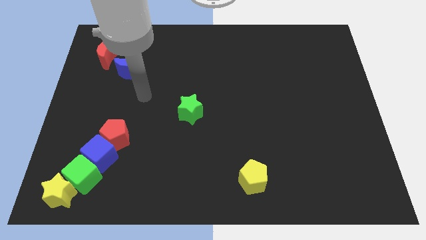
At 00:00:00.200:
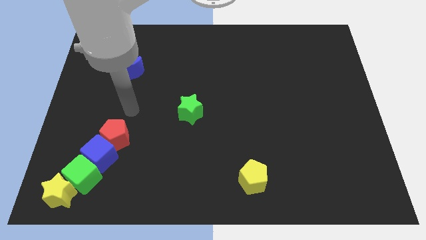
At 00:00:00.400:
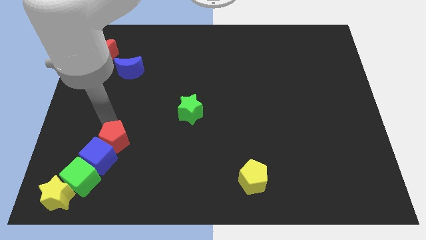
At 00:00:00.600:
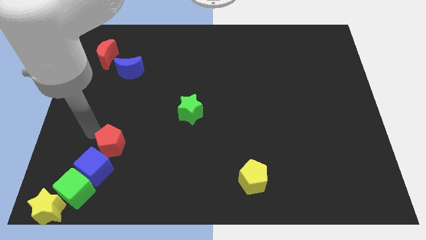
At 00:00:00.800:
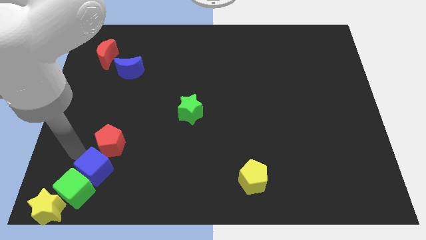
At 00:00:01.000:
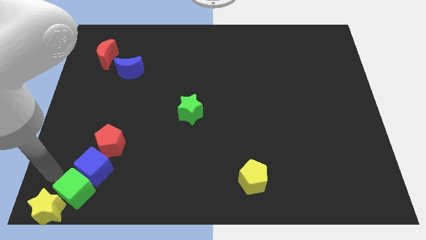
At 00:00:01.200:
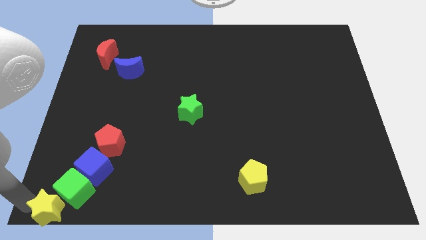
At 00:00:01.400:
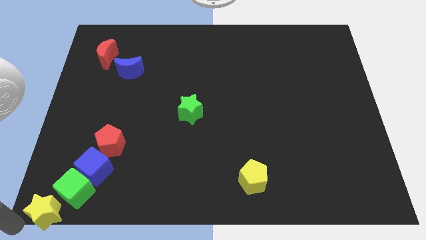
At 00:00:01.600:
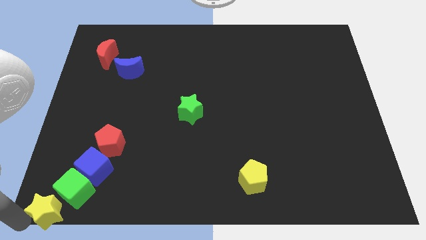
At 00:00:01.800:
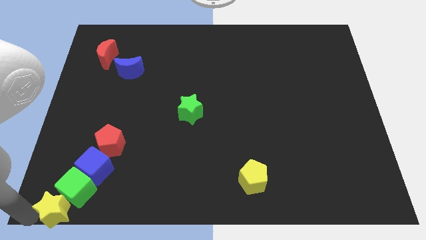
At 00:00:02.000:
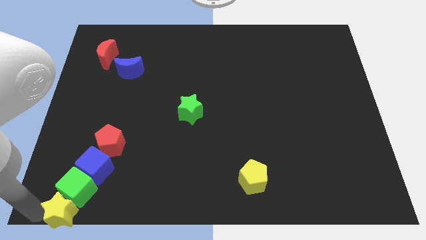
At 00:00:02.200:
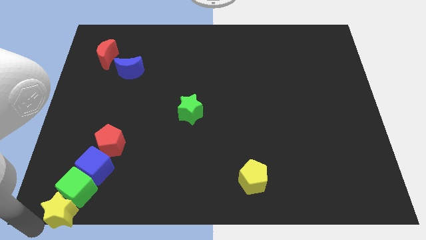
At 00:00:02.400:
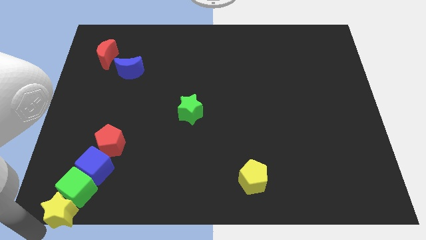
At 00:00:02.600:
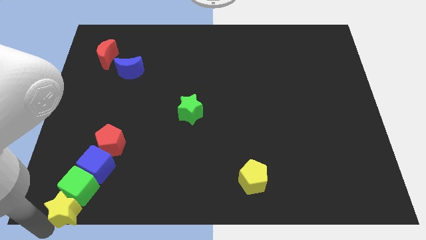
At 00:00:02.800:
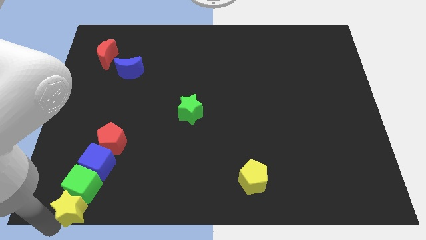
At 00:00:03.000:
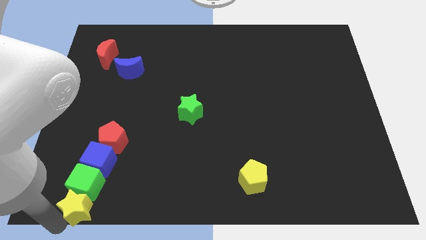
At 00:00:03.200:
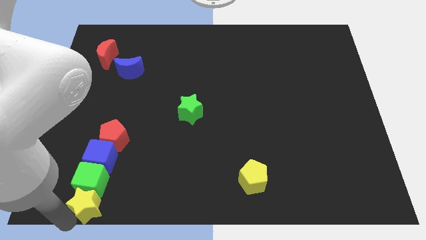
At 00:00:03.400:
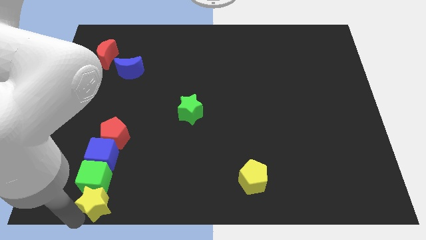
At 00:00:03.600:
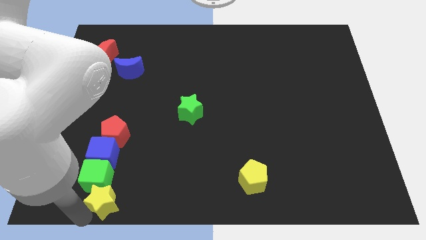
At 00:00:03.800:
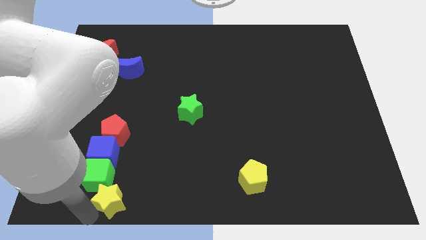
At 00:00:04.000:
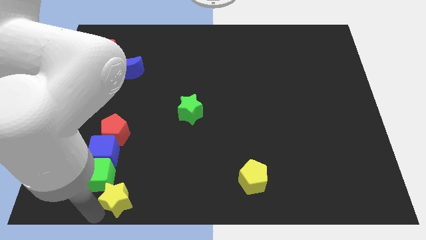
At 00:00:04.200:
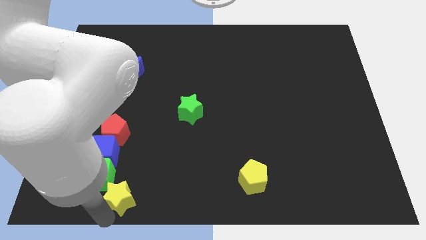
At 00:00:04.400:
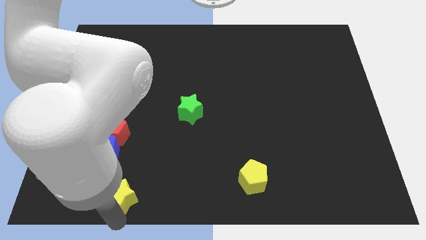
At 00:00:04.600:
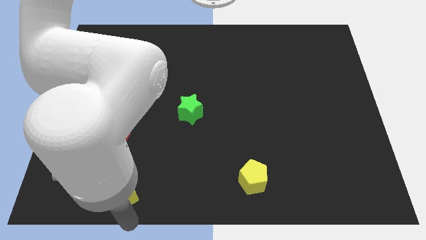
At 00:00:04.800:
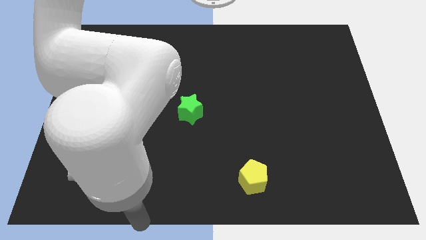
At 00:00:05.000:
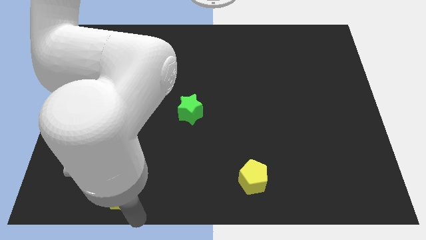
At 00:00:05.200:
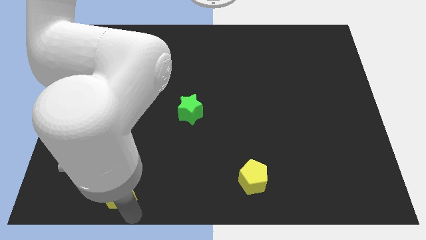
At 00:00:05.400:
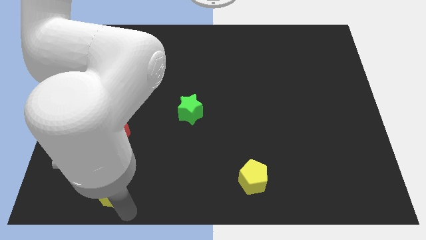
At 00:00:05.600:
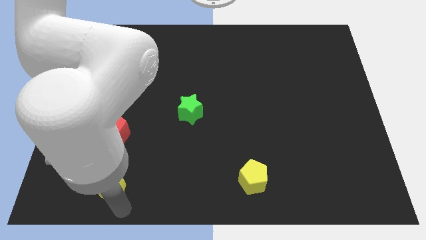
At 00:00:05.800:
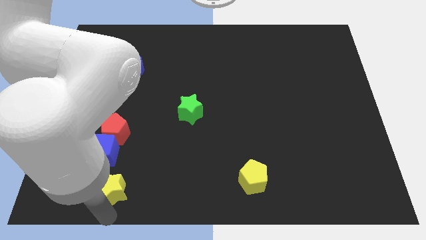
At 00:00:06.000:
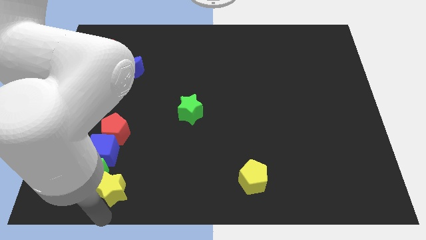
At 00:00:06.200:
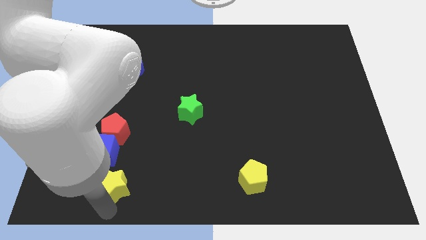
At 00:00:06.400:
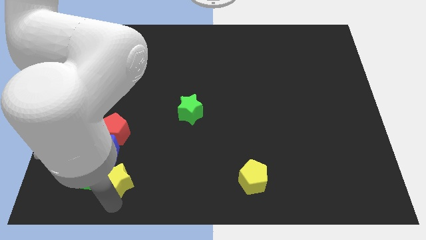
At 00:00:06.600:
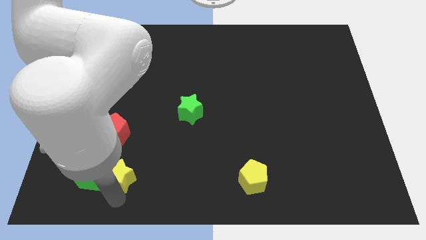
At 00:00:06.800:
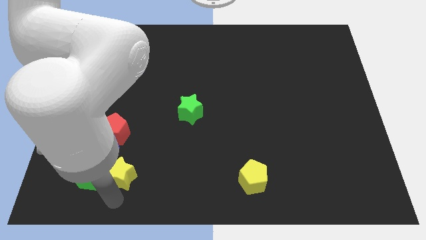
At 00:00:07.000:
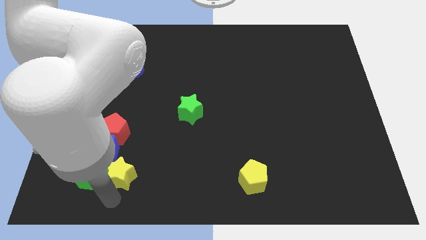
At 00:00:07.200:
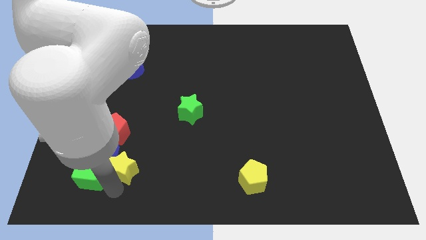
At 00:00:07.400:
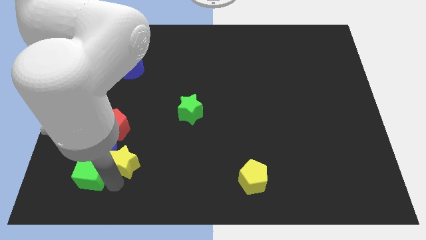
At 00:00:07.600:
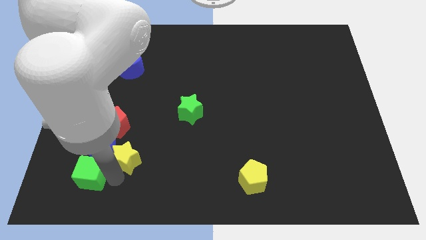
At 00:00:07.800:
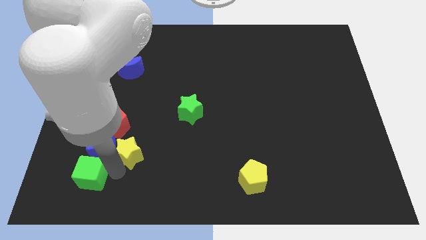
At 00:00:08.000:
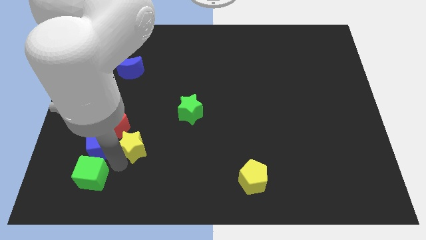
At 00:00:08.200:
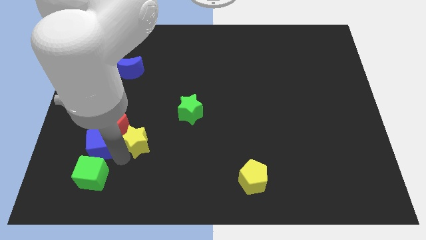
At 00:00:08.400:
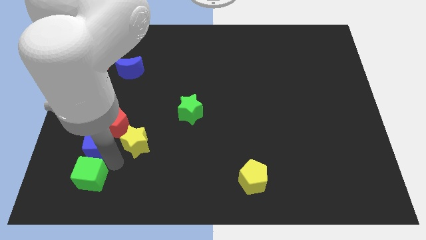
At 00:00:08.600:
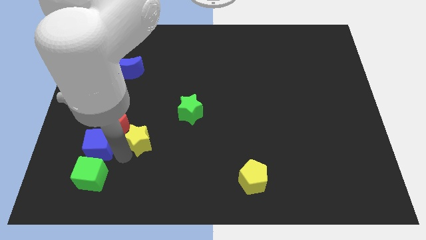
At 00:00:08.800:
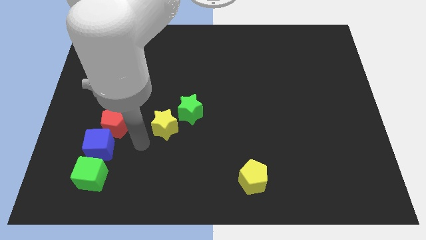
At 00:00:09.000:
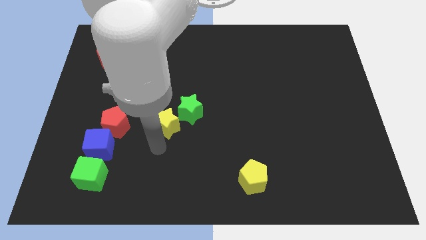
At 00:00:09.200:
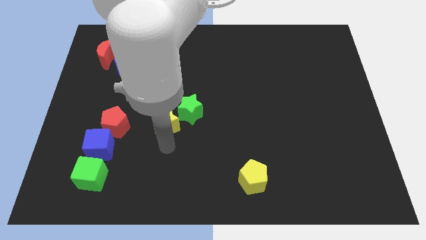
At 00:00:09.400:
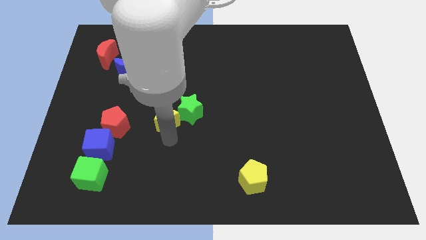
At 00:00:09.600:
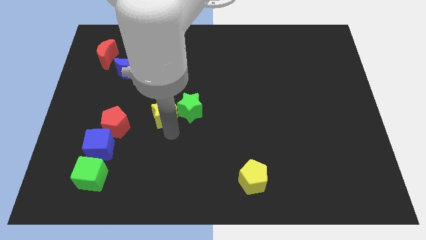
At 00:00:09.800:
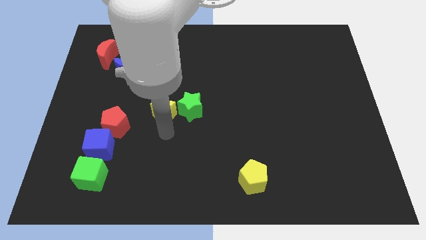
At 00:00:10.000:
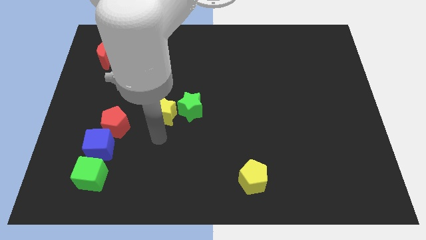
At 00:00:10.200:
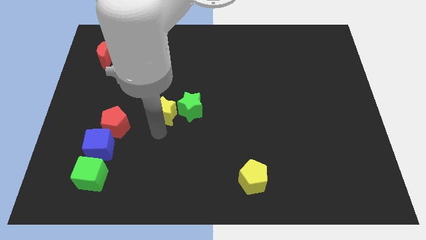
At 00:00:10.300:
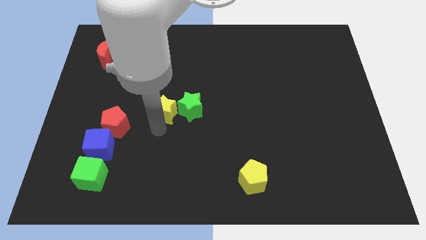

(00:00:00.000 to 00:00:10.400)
put the yellow star to the top left of the green star

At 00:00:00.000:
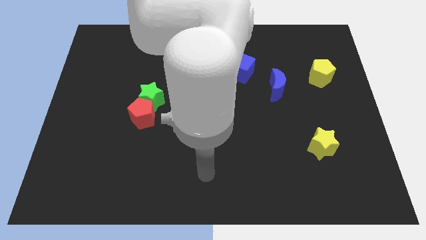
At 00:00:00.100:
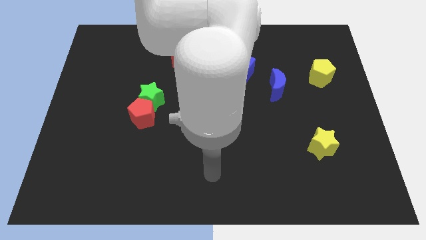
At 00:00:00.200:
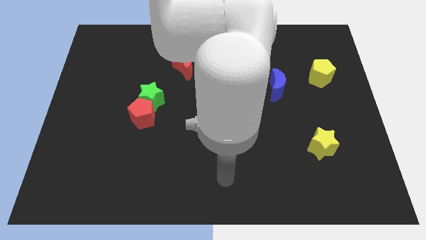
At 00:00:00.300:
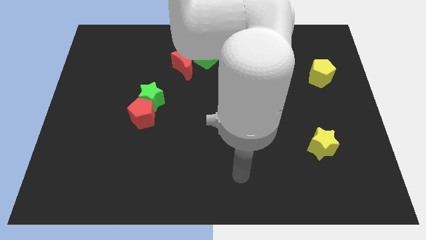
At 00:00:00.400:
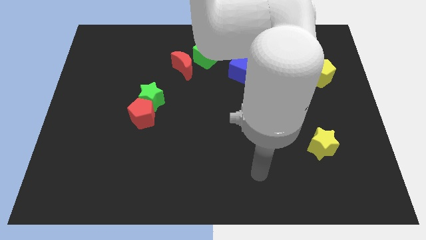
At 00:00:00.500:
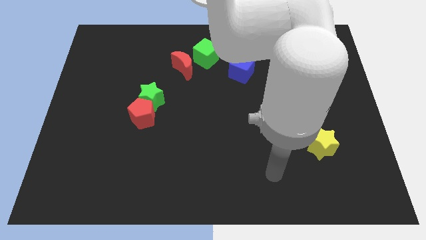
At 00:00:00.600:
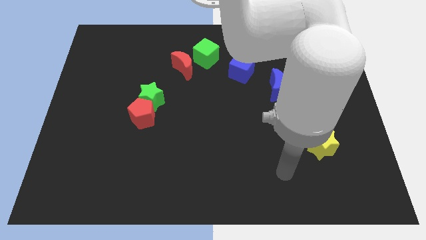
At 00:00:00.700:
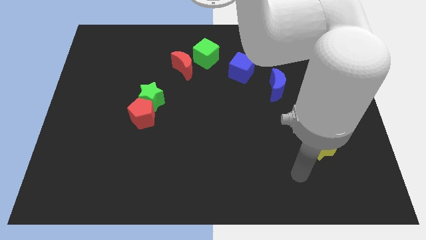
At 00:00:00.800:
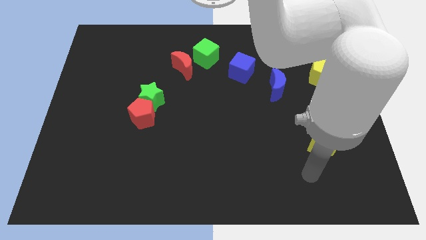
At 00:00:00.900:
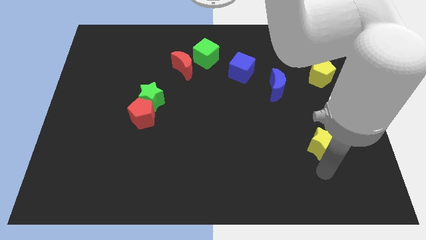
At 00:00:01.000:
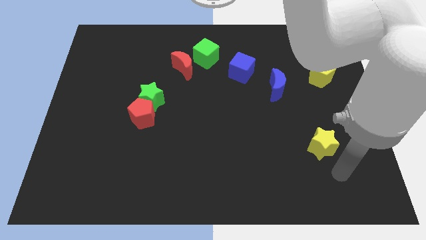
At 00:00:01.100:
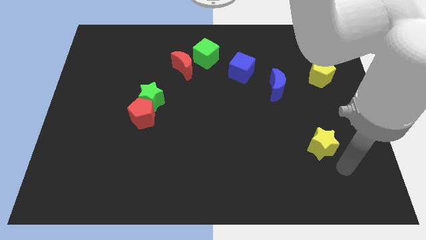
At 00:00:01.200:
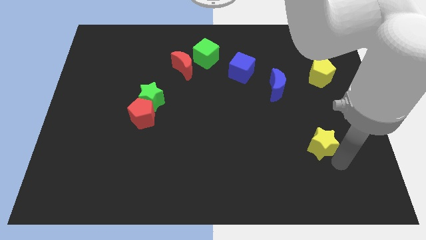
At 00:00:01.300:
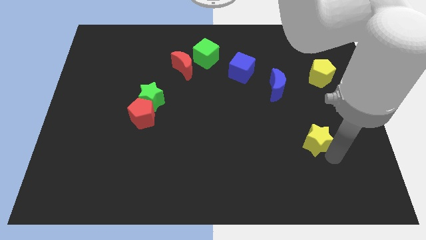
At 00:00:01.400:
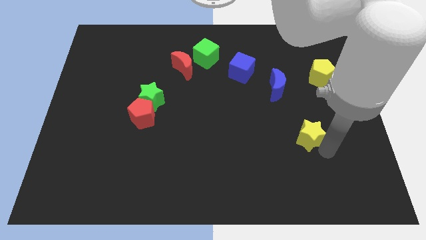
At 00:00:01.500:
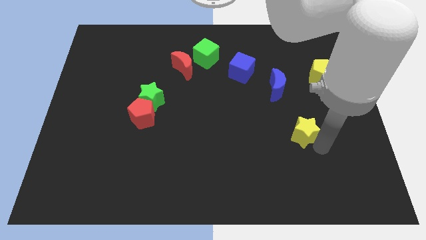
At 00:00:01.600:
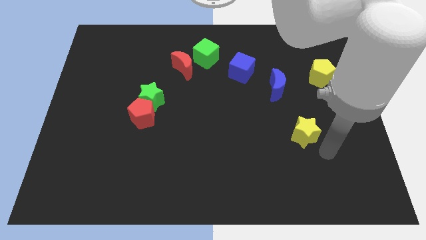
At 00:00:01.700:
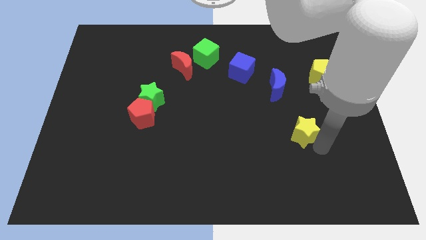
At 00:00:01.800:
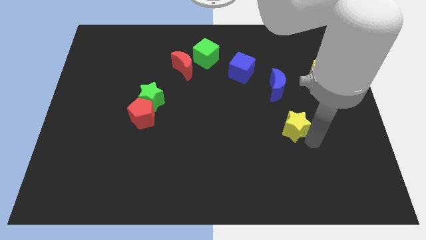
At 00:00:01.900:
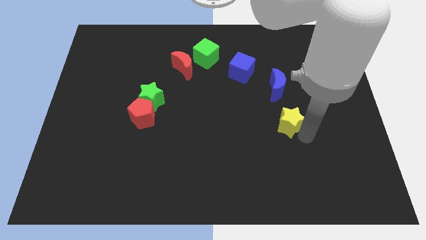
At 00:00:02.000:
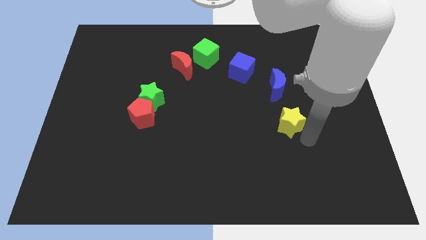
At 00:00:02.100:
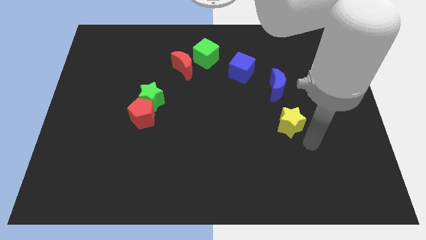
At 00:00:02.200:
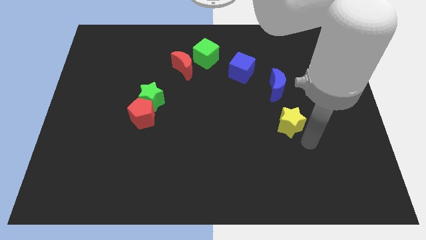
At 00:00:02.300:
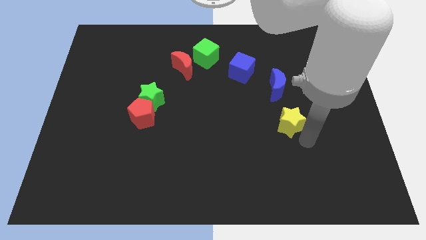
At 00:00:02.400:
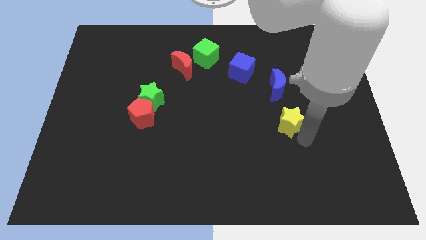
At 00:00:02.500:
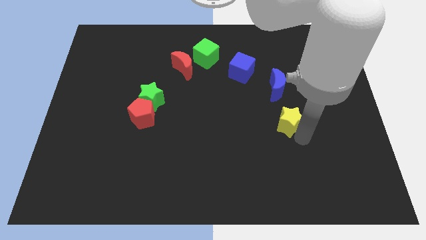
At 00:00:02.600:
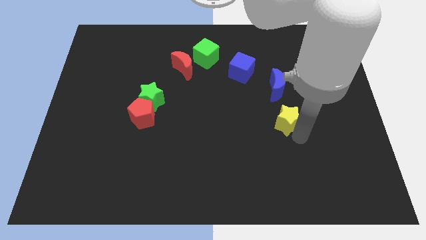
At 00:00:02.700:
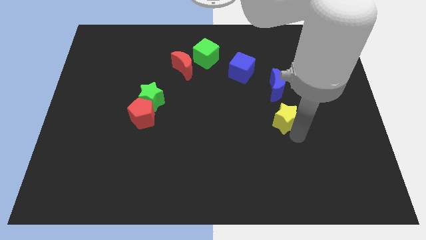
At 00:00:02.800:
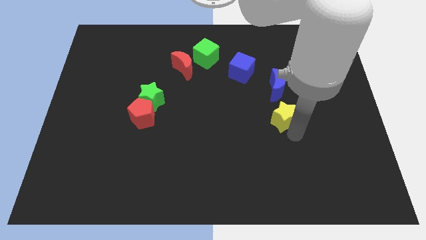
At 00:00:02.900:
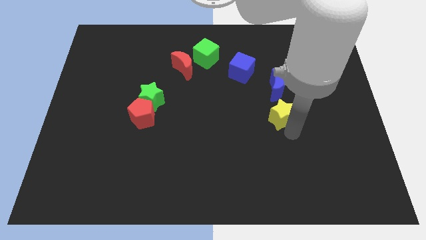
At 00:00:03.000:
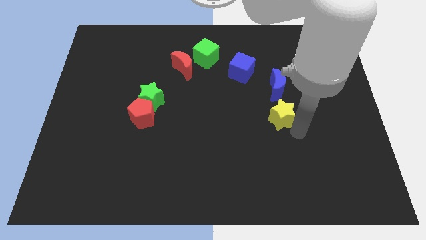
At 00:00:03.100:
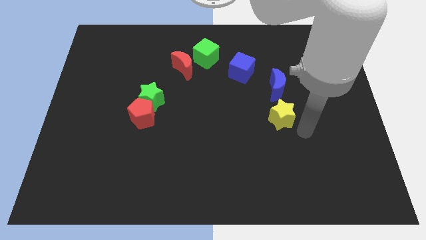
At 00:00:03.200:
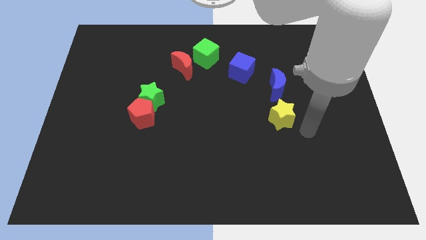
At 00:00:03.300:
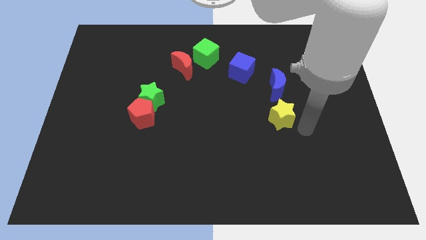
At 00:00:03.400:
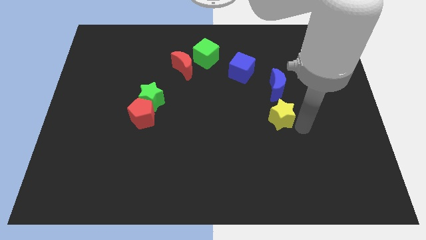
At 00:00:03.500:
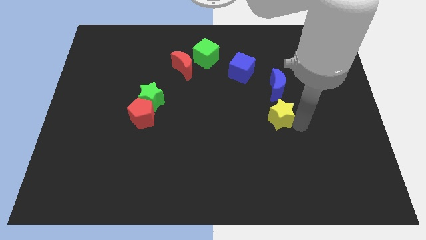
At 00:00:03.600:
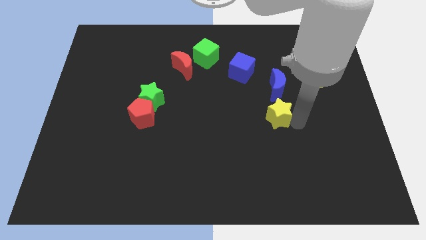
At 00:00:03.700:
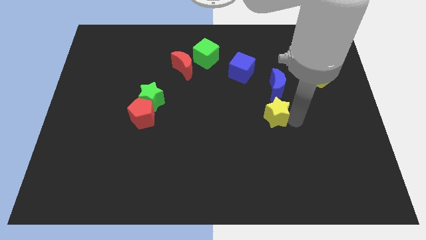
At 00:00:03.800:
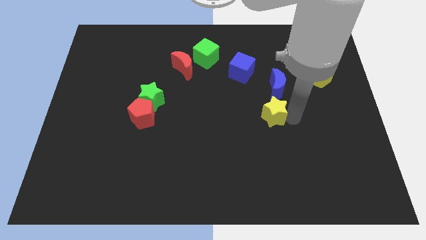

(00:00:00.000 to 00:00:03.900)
push the yellow star to the bottom left side of the blue moon
